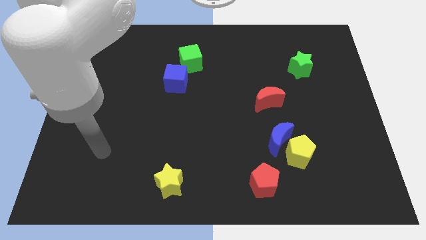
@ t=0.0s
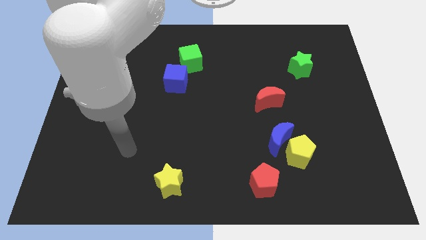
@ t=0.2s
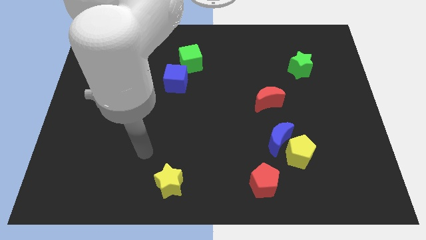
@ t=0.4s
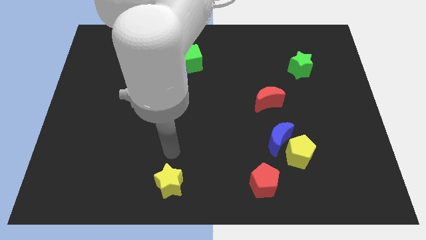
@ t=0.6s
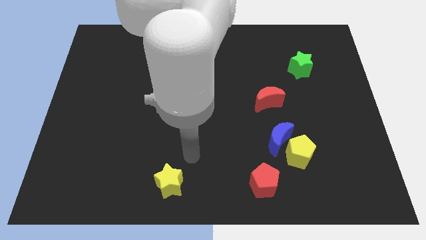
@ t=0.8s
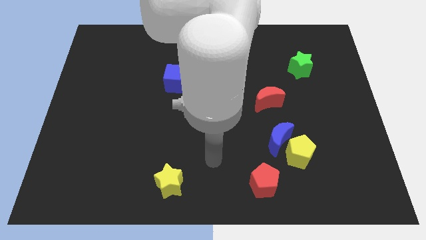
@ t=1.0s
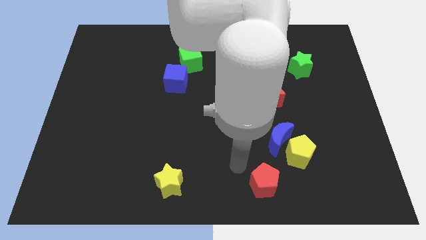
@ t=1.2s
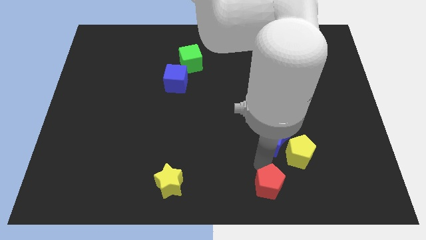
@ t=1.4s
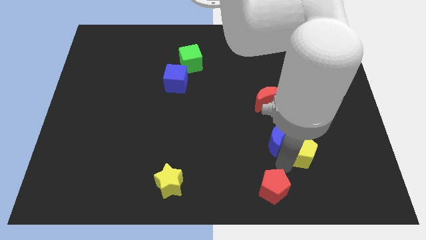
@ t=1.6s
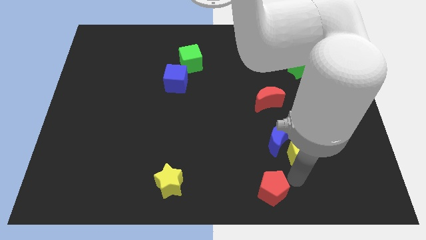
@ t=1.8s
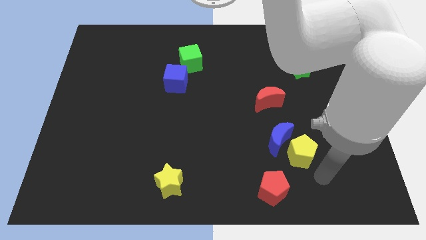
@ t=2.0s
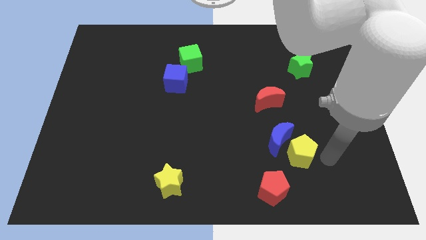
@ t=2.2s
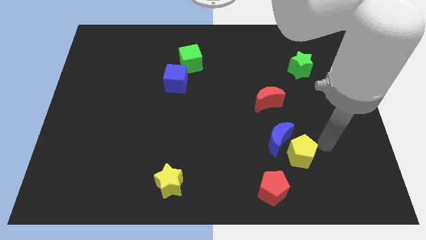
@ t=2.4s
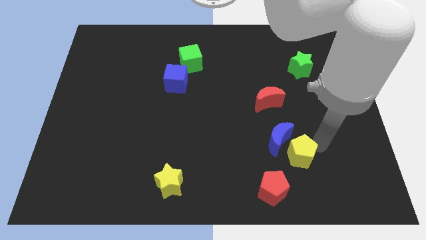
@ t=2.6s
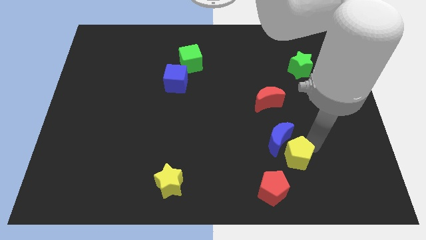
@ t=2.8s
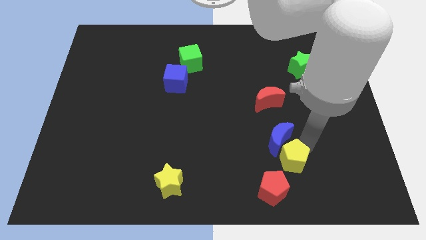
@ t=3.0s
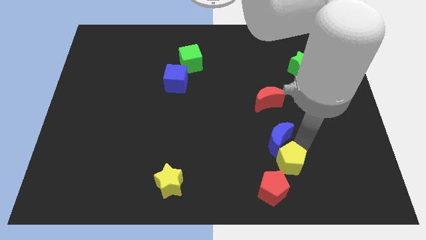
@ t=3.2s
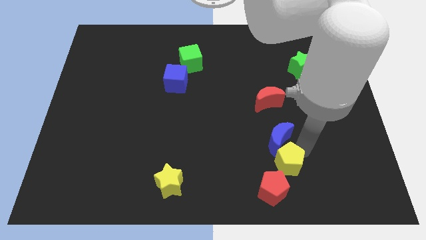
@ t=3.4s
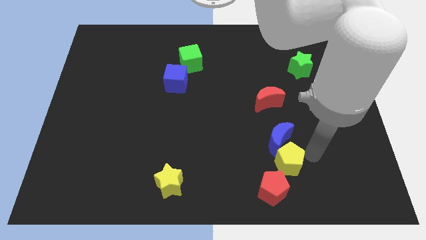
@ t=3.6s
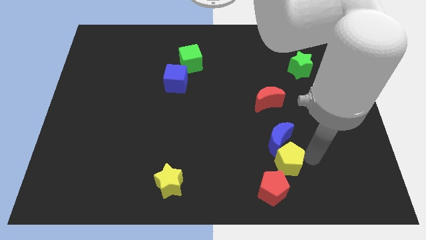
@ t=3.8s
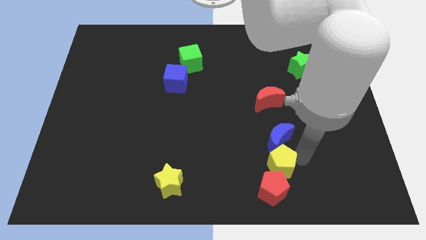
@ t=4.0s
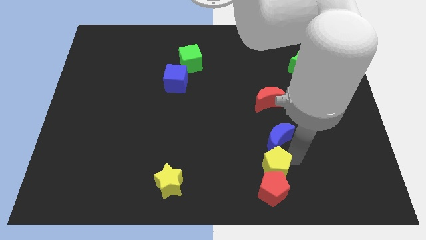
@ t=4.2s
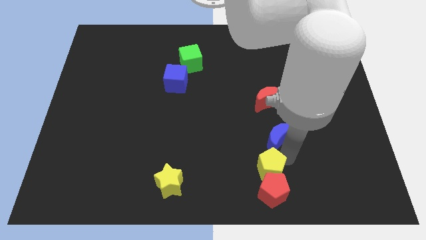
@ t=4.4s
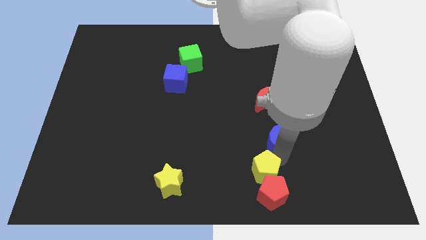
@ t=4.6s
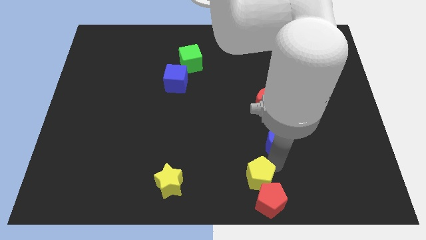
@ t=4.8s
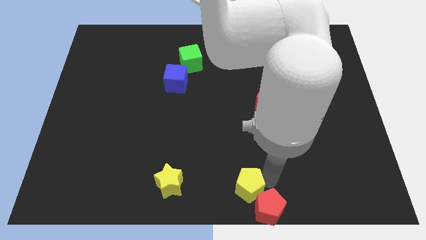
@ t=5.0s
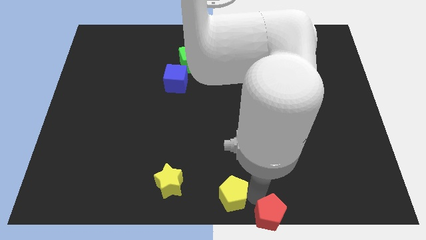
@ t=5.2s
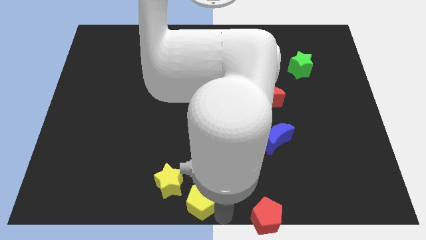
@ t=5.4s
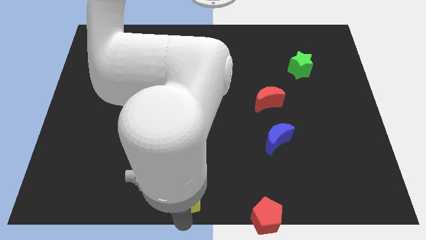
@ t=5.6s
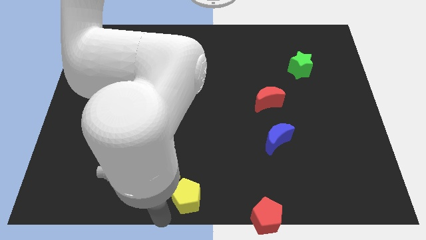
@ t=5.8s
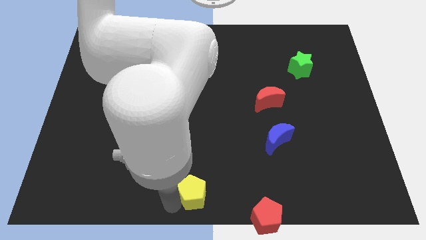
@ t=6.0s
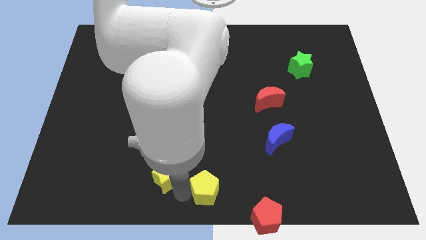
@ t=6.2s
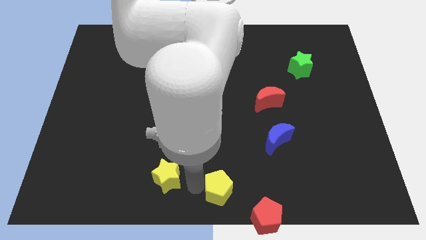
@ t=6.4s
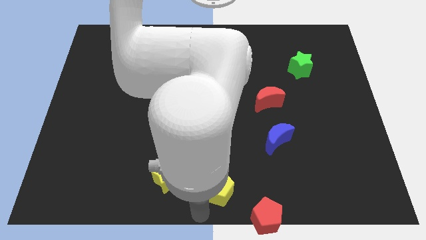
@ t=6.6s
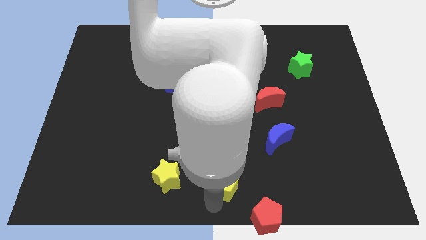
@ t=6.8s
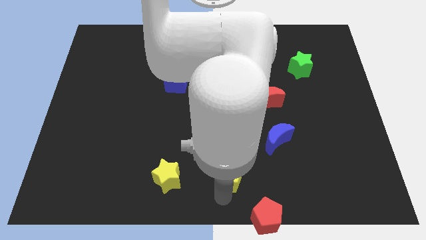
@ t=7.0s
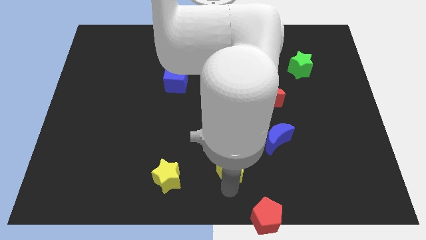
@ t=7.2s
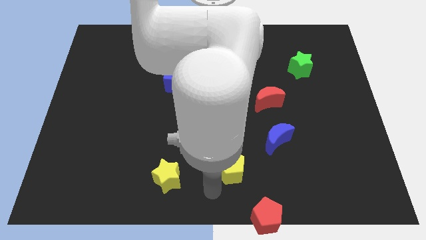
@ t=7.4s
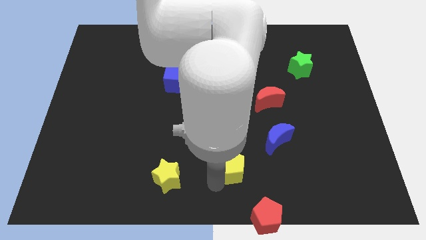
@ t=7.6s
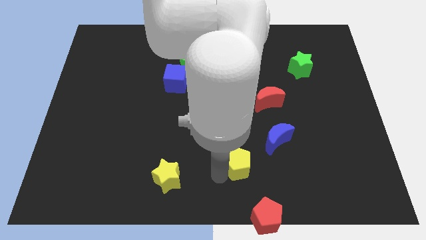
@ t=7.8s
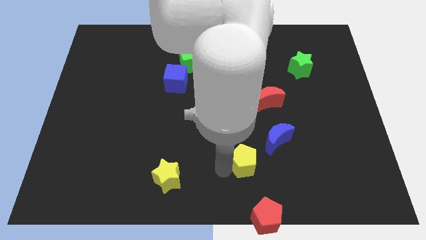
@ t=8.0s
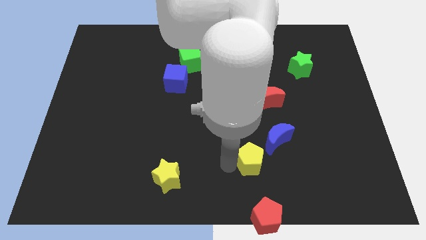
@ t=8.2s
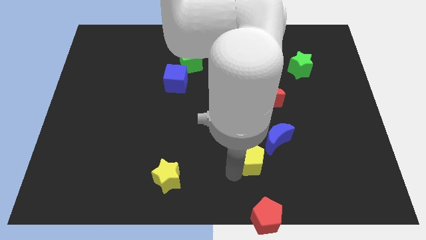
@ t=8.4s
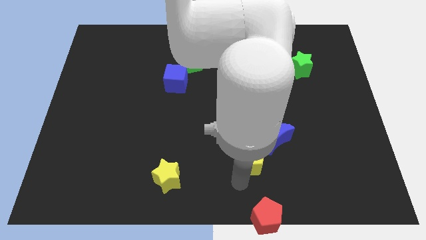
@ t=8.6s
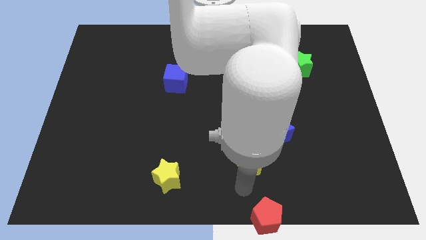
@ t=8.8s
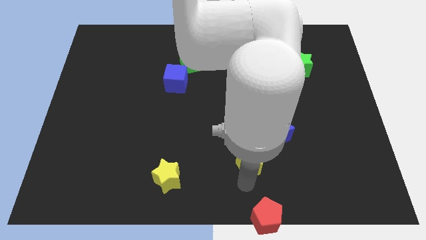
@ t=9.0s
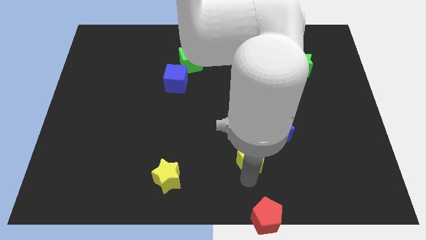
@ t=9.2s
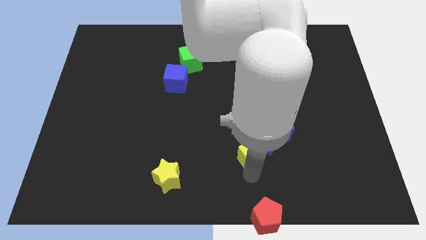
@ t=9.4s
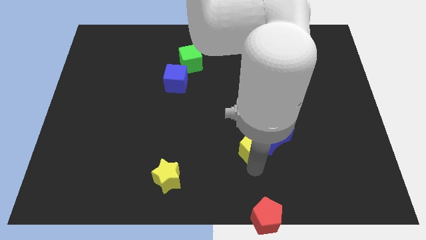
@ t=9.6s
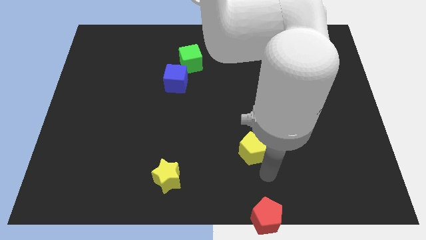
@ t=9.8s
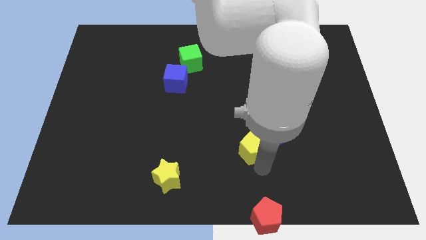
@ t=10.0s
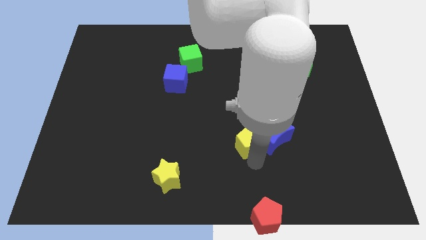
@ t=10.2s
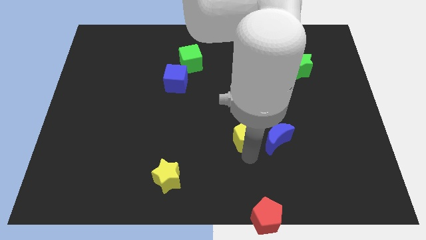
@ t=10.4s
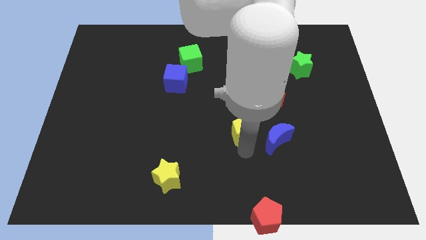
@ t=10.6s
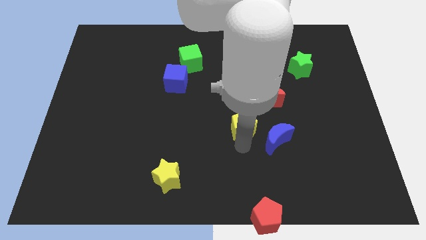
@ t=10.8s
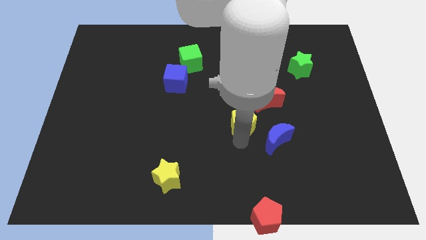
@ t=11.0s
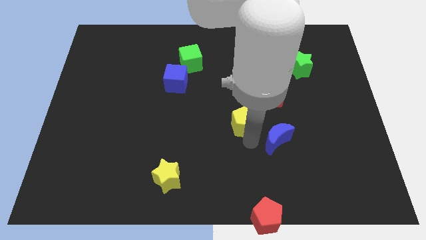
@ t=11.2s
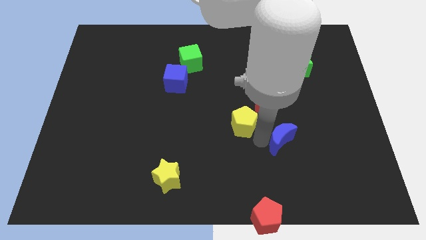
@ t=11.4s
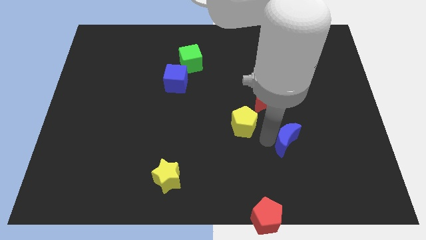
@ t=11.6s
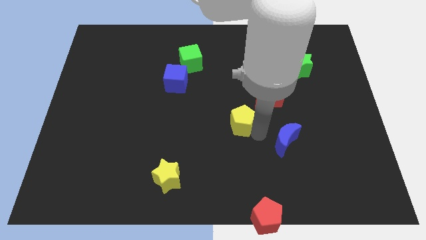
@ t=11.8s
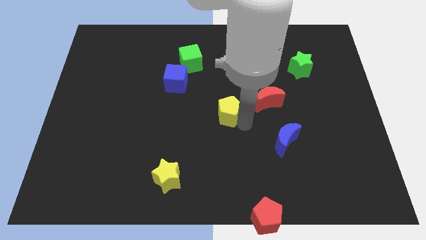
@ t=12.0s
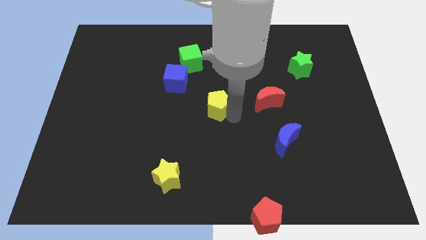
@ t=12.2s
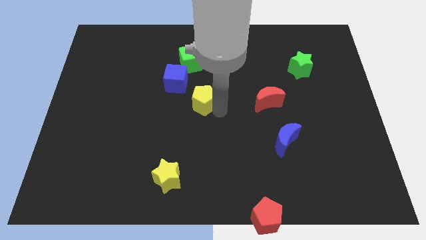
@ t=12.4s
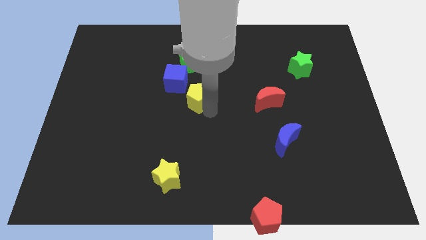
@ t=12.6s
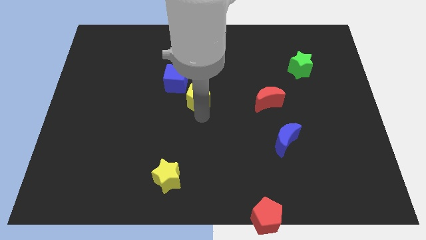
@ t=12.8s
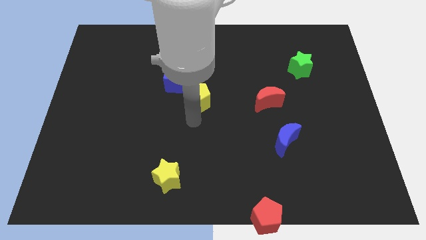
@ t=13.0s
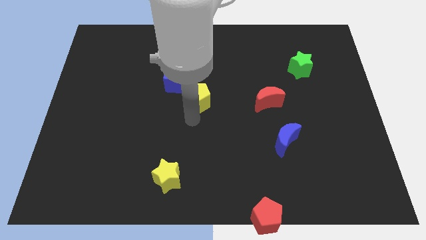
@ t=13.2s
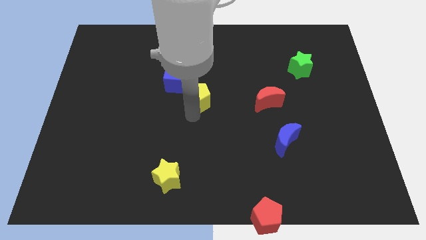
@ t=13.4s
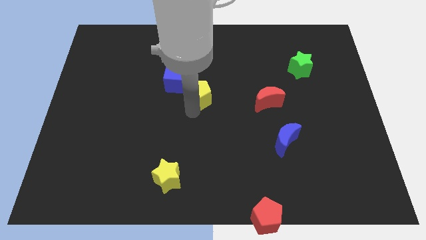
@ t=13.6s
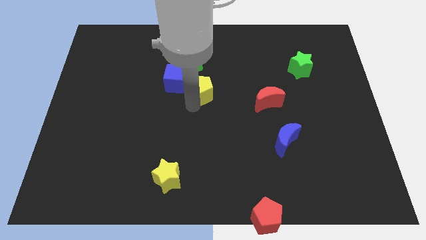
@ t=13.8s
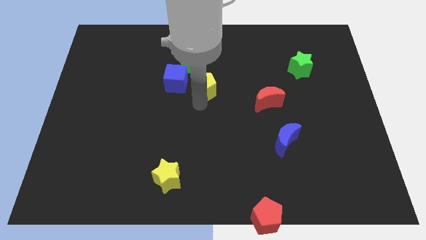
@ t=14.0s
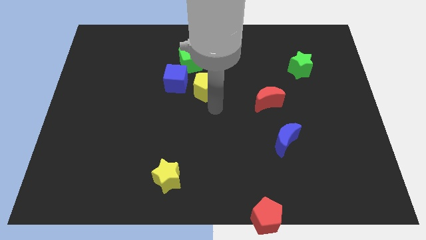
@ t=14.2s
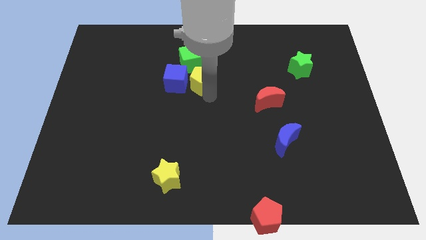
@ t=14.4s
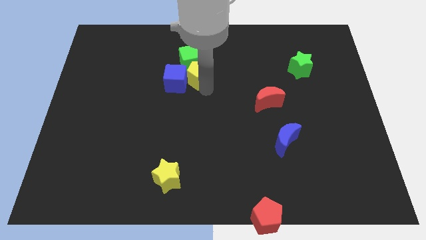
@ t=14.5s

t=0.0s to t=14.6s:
slide the yellow pentagon next to the green cube
